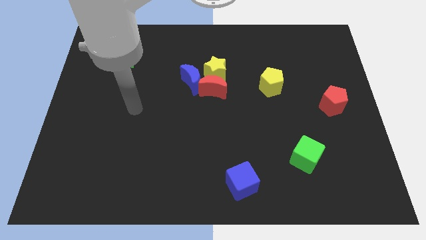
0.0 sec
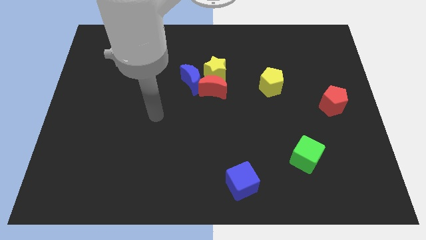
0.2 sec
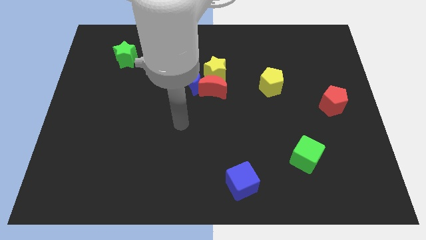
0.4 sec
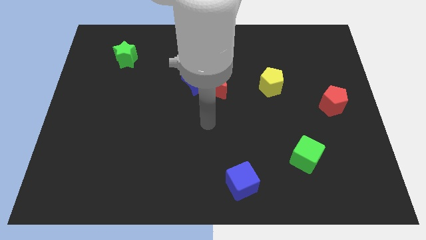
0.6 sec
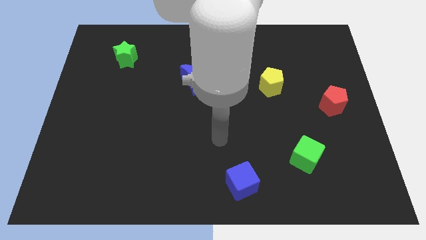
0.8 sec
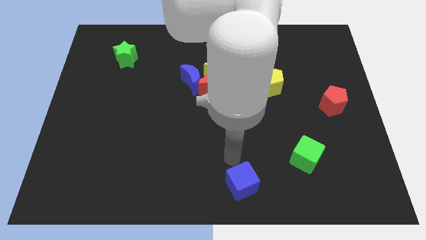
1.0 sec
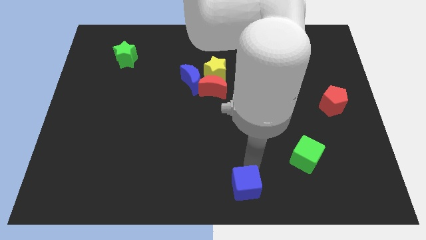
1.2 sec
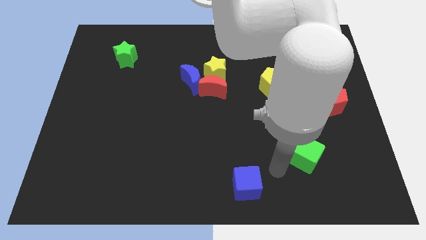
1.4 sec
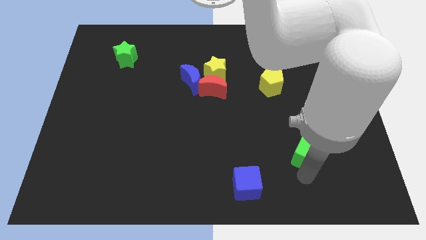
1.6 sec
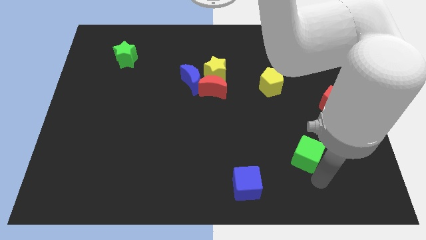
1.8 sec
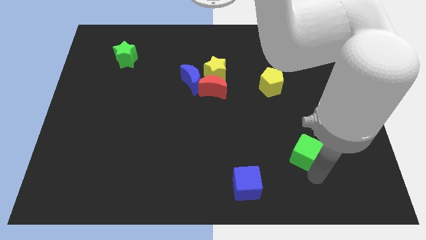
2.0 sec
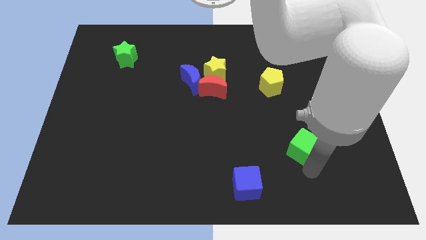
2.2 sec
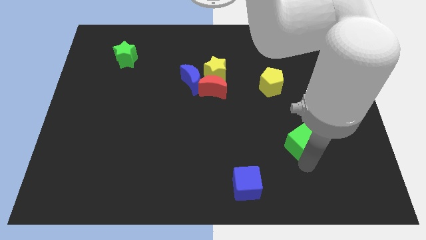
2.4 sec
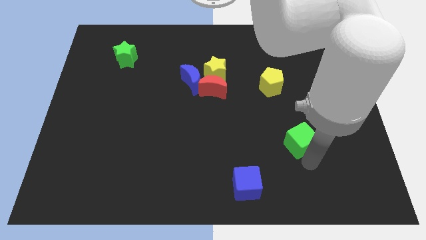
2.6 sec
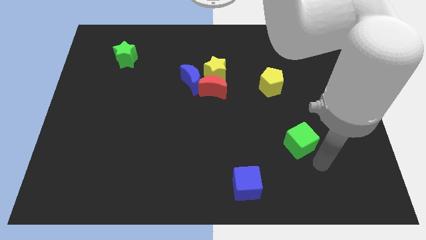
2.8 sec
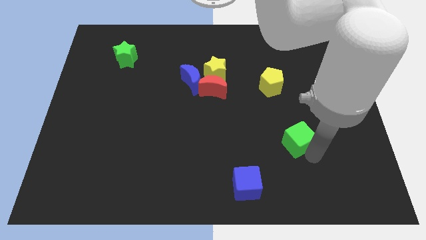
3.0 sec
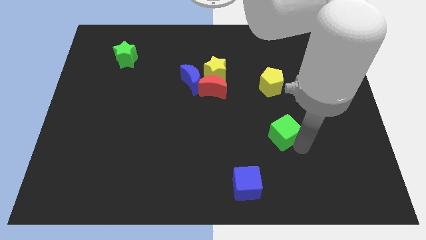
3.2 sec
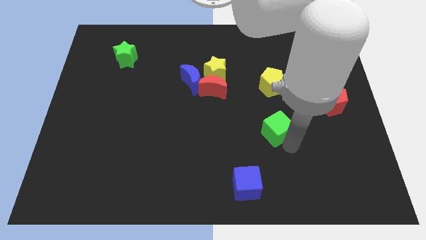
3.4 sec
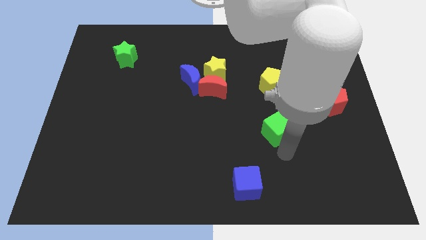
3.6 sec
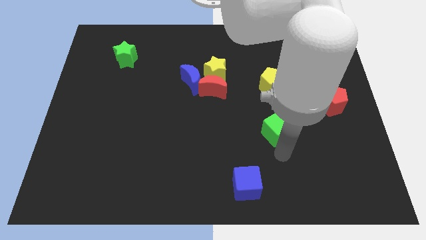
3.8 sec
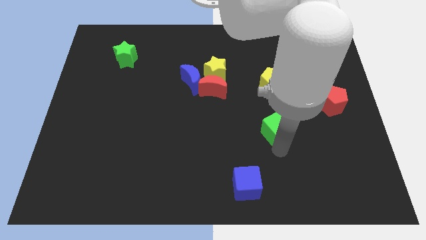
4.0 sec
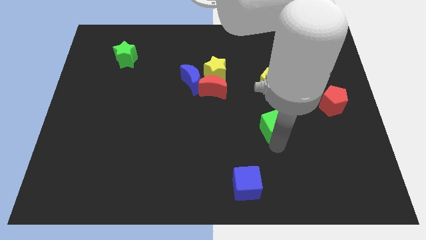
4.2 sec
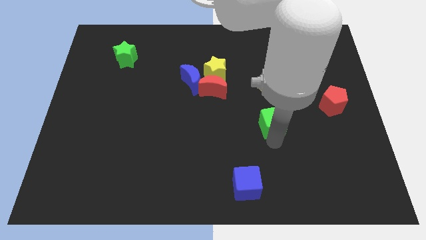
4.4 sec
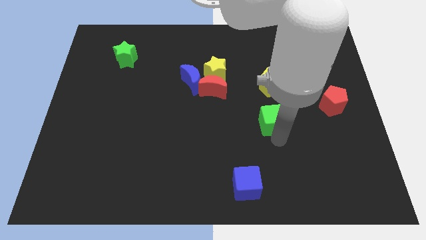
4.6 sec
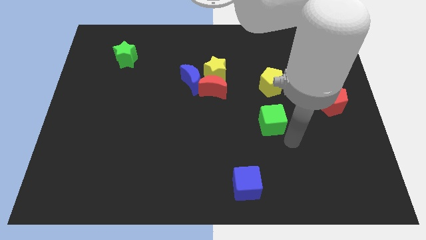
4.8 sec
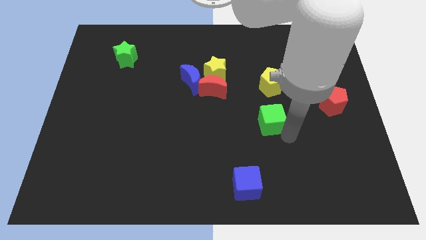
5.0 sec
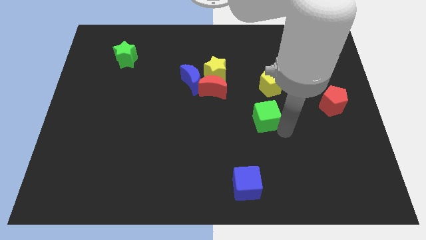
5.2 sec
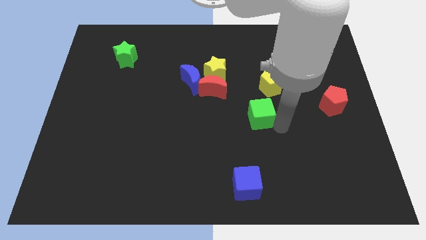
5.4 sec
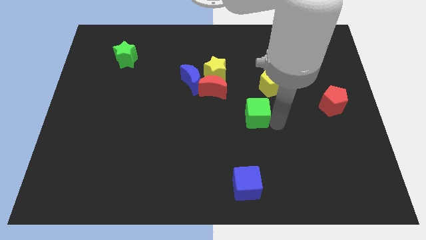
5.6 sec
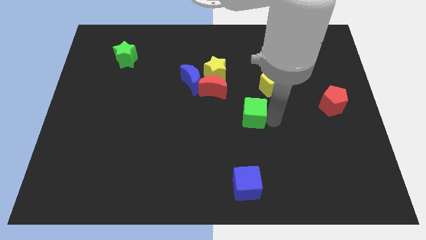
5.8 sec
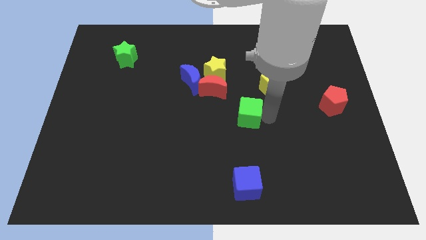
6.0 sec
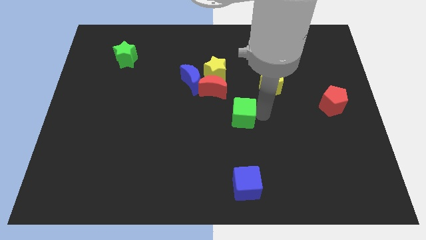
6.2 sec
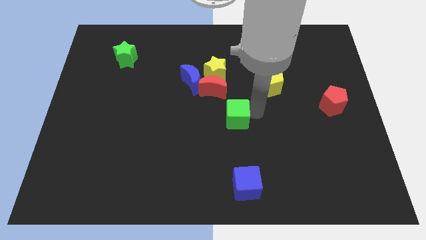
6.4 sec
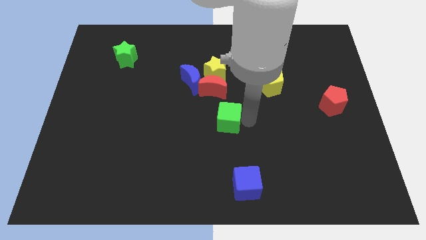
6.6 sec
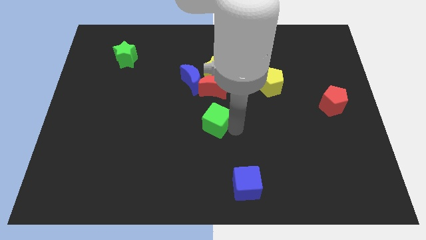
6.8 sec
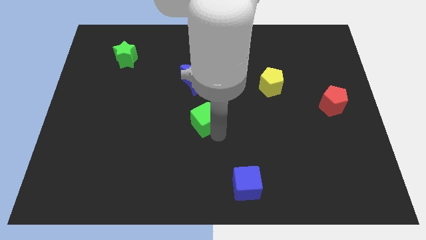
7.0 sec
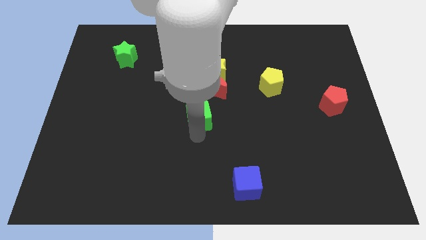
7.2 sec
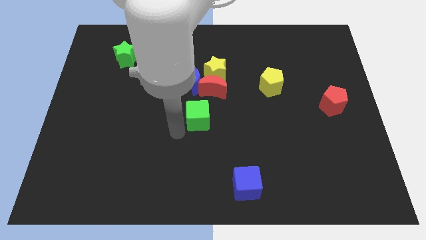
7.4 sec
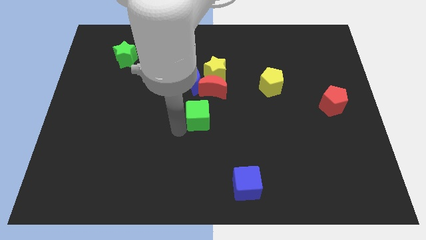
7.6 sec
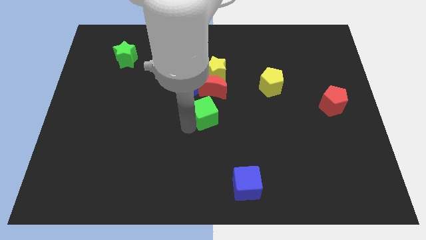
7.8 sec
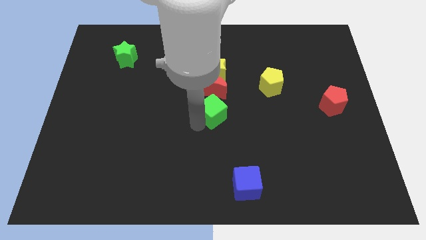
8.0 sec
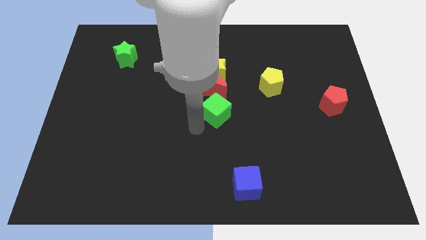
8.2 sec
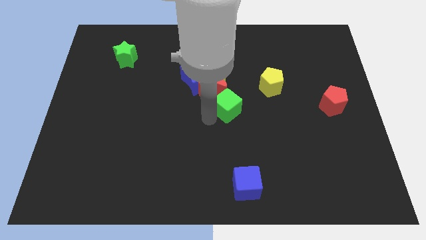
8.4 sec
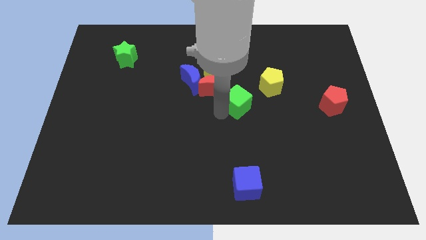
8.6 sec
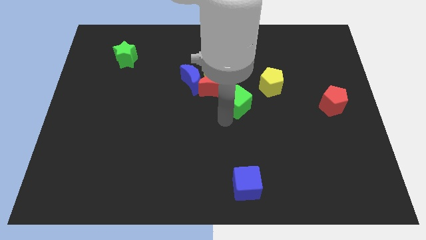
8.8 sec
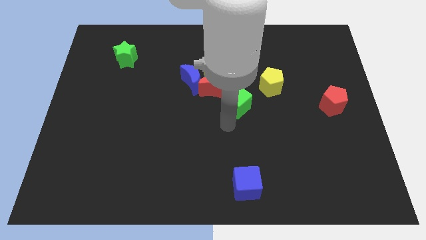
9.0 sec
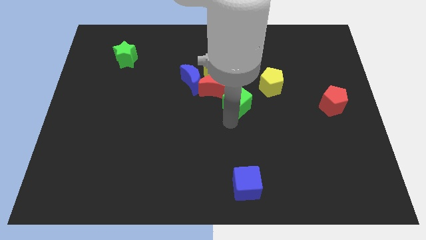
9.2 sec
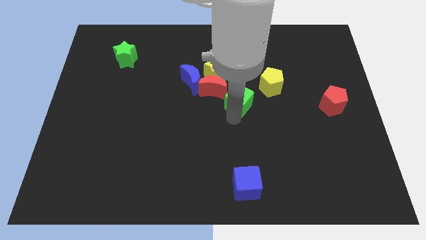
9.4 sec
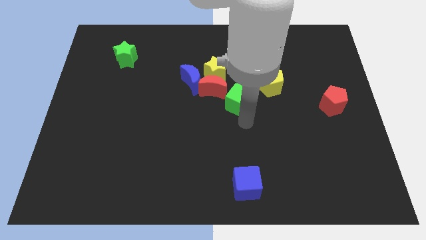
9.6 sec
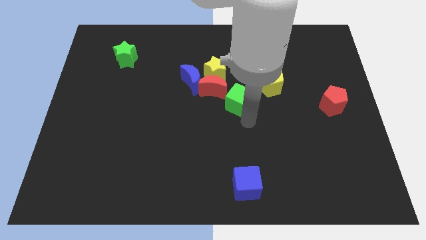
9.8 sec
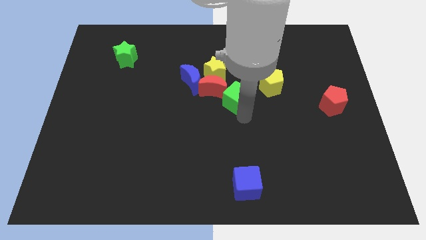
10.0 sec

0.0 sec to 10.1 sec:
slide the green cube just left of the yellow pentagon

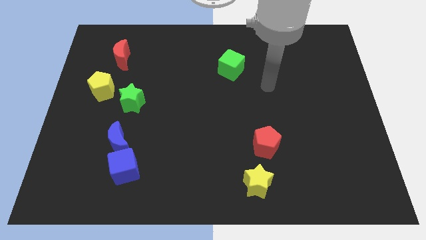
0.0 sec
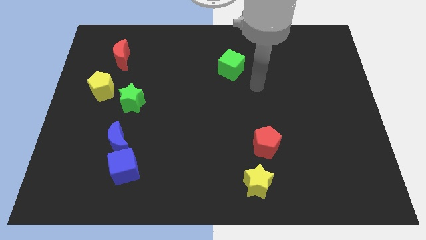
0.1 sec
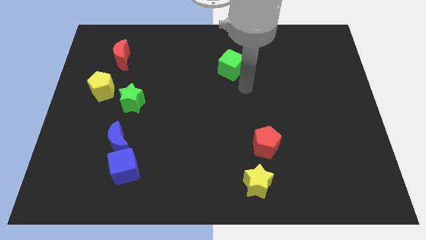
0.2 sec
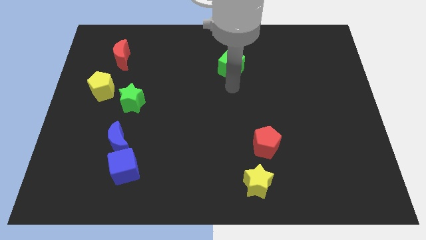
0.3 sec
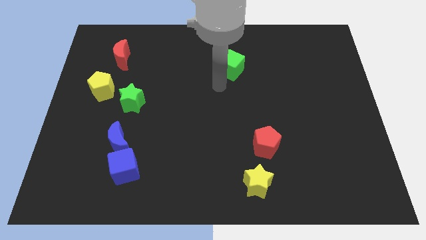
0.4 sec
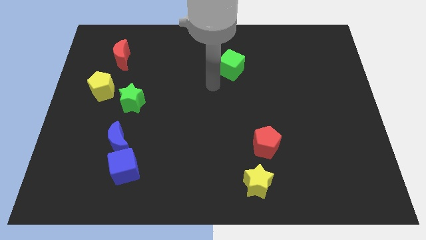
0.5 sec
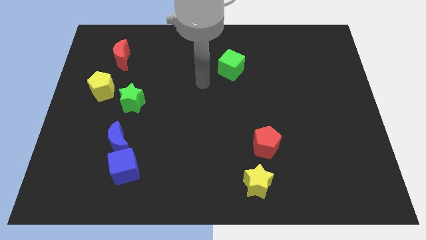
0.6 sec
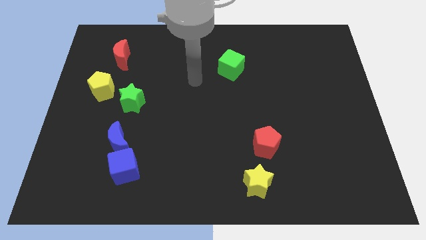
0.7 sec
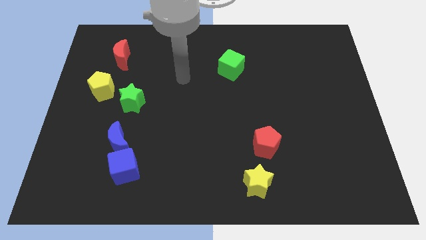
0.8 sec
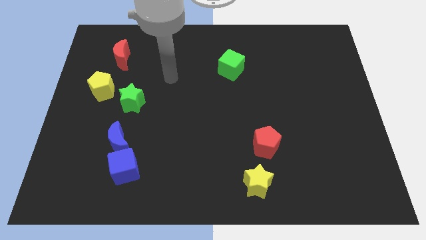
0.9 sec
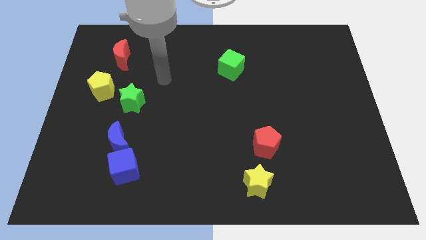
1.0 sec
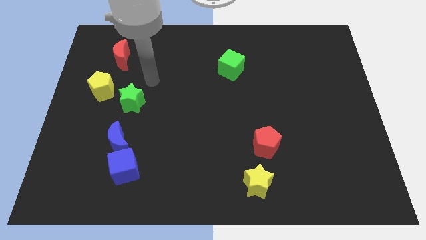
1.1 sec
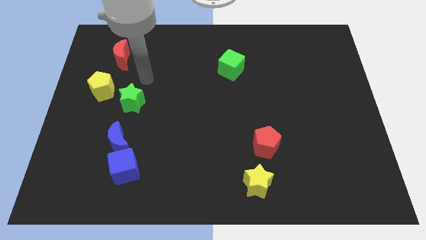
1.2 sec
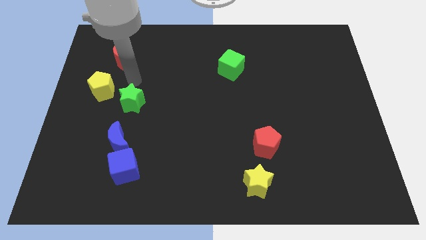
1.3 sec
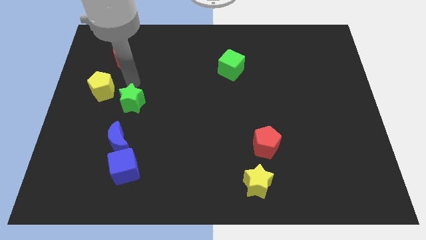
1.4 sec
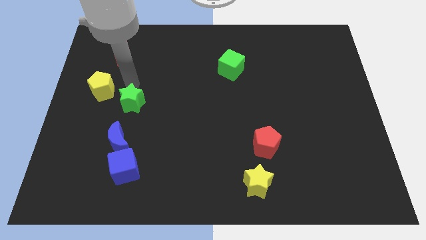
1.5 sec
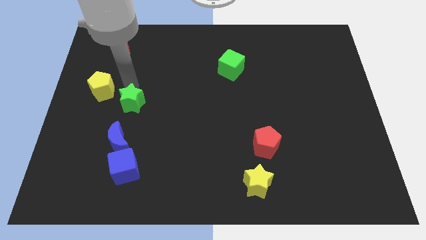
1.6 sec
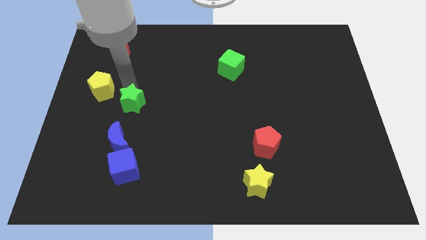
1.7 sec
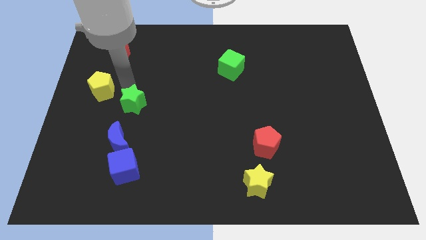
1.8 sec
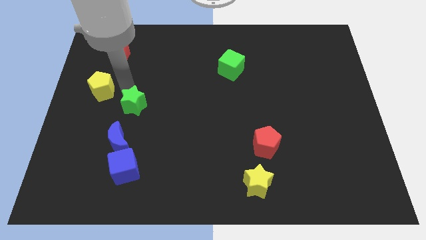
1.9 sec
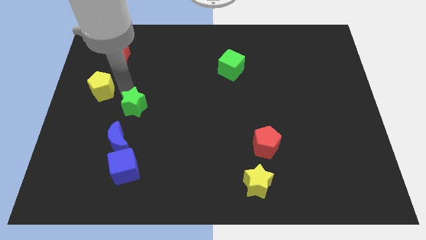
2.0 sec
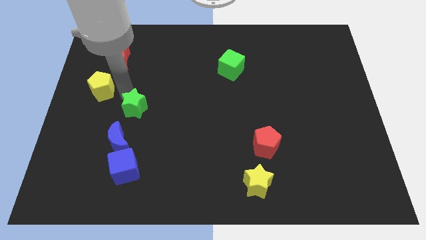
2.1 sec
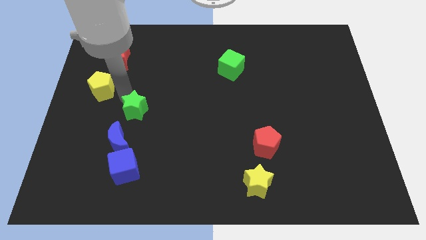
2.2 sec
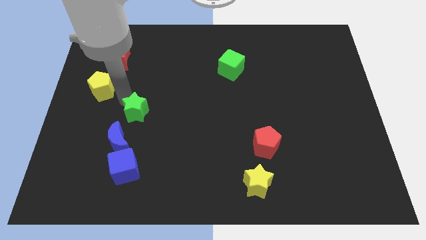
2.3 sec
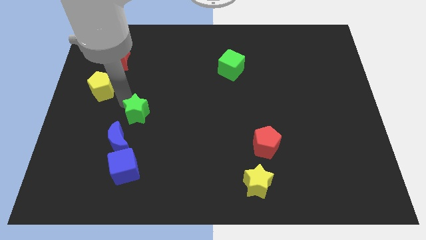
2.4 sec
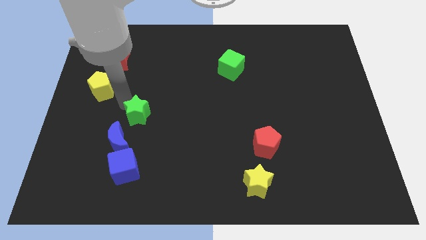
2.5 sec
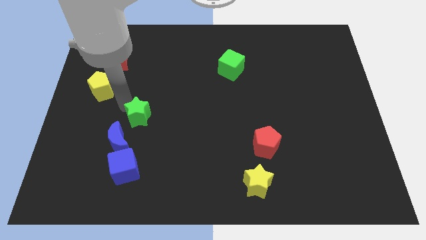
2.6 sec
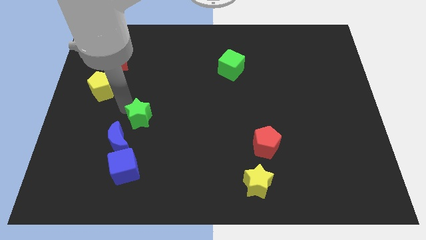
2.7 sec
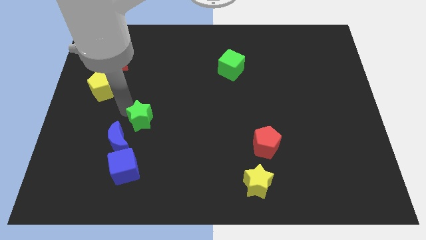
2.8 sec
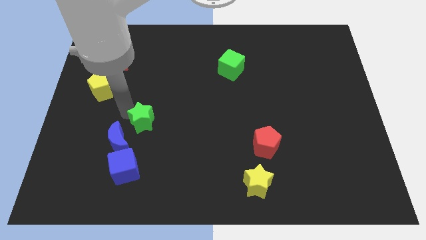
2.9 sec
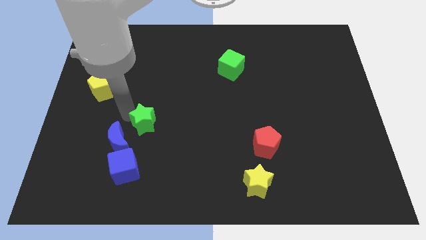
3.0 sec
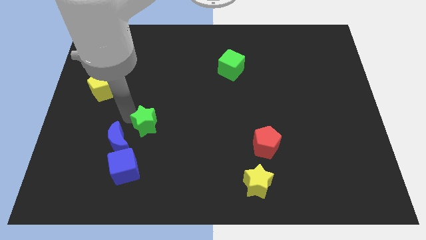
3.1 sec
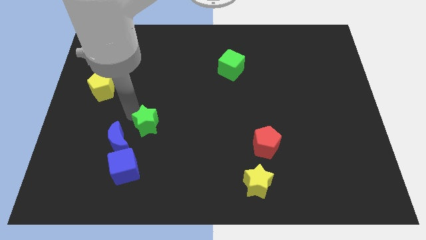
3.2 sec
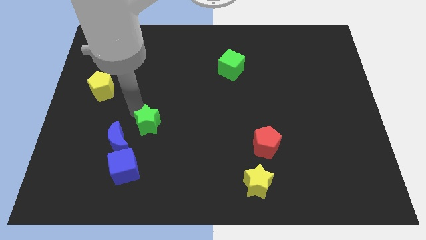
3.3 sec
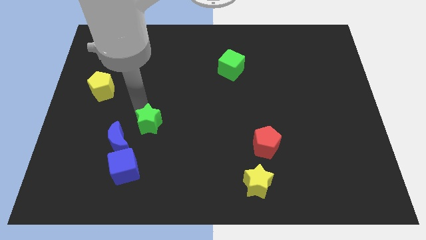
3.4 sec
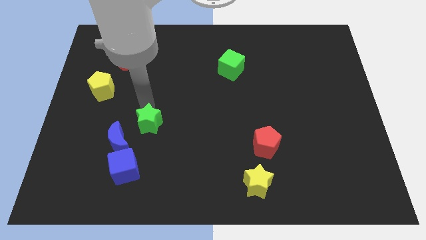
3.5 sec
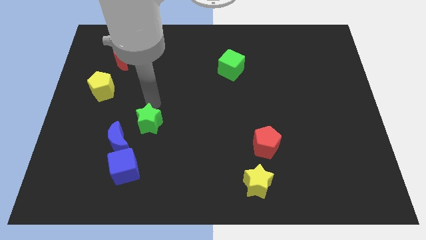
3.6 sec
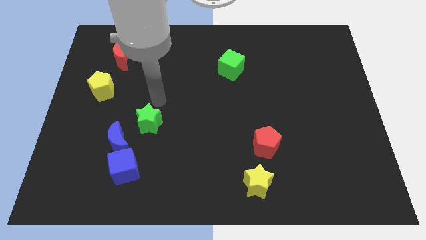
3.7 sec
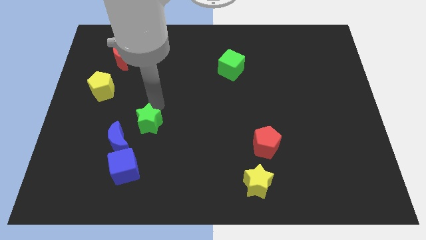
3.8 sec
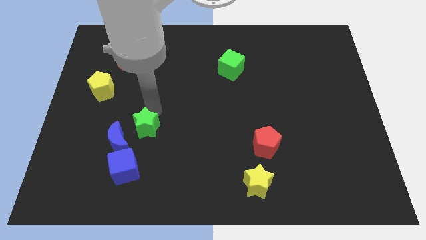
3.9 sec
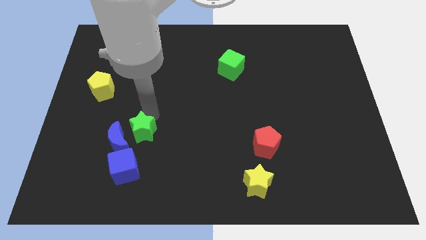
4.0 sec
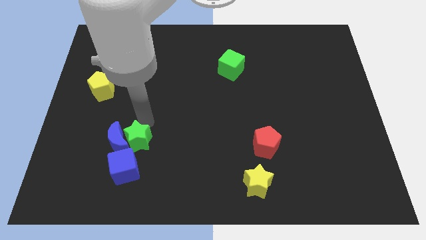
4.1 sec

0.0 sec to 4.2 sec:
push the green star to the bottom right side of the blue moon
